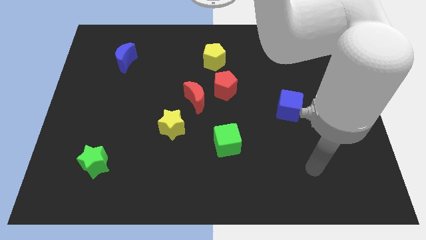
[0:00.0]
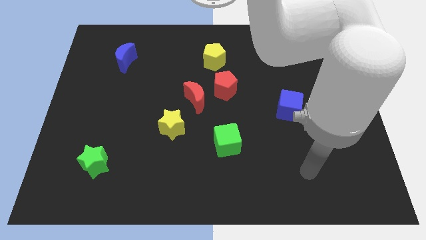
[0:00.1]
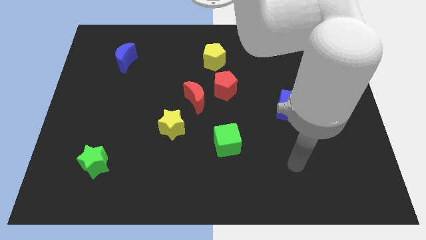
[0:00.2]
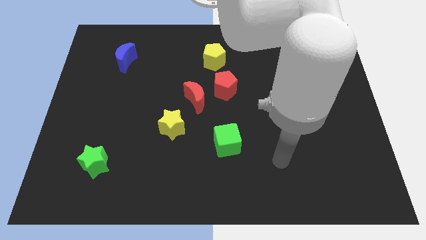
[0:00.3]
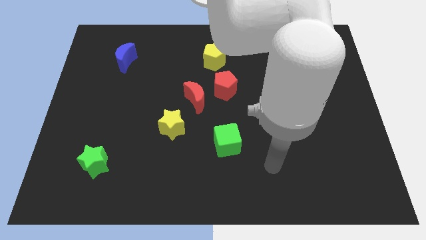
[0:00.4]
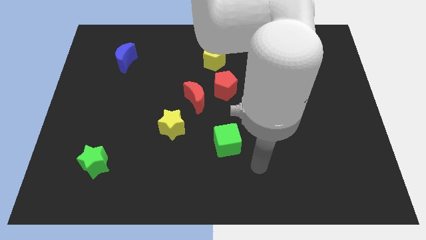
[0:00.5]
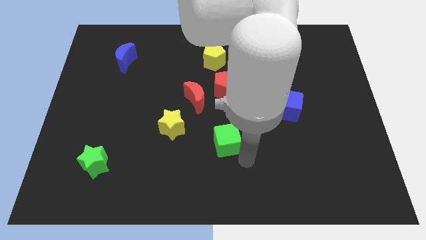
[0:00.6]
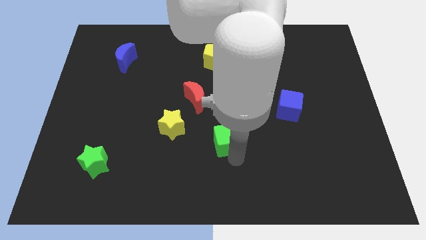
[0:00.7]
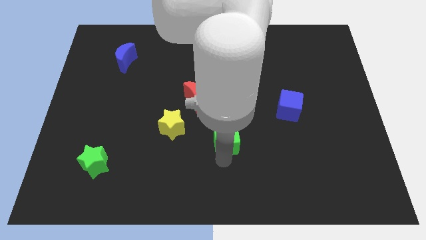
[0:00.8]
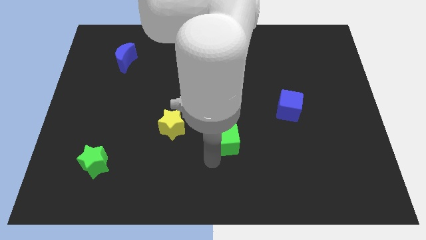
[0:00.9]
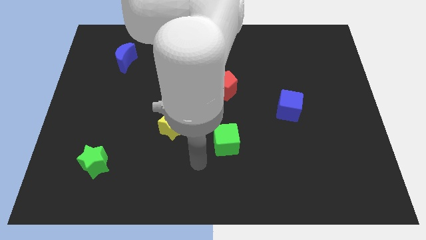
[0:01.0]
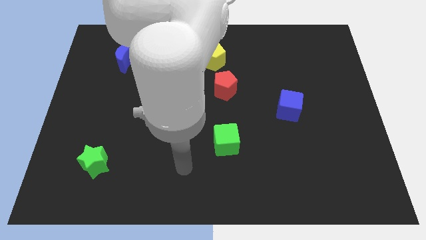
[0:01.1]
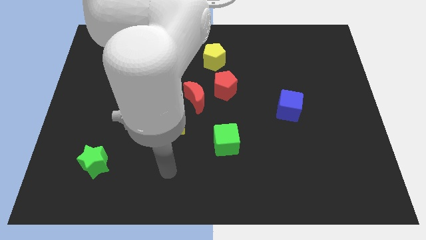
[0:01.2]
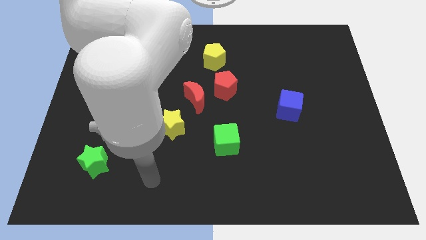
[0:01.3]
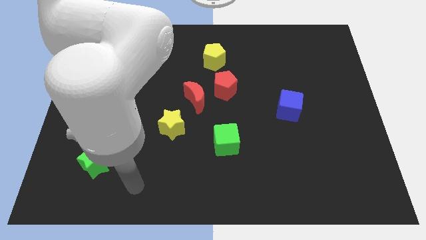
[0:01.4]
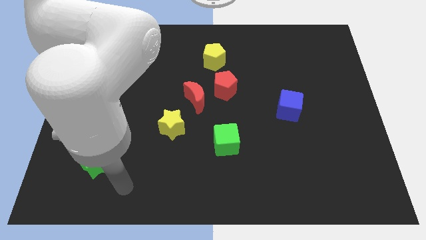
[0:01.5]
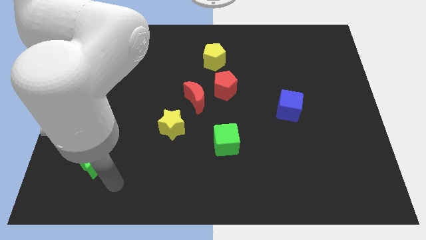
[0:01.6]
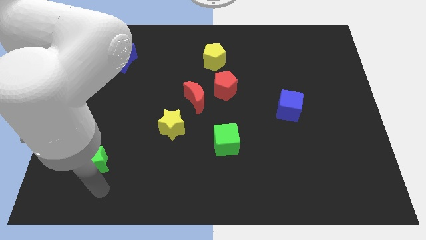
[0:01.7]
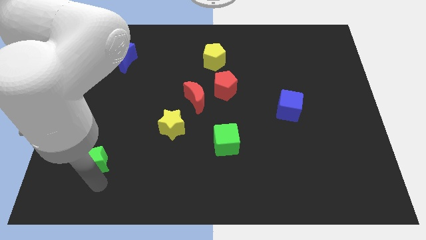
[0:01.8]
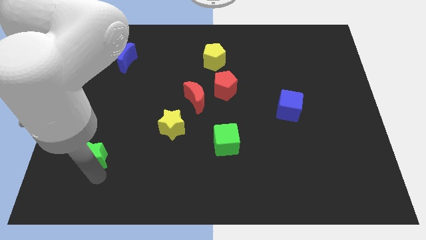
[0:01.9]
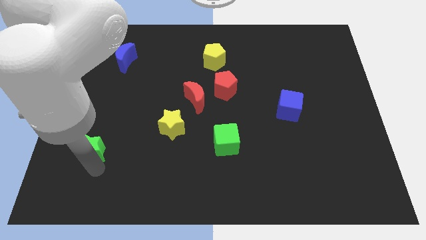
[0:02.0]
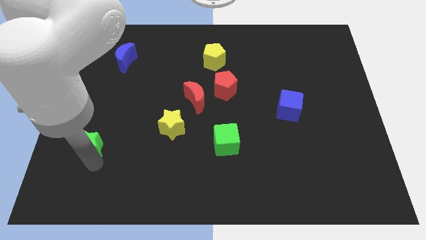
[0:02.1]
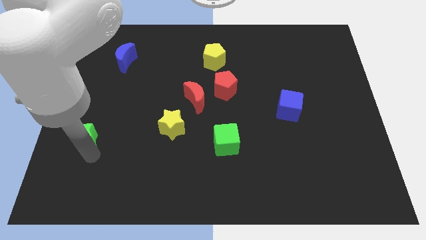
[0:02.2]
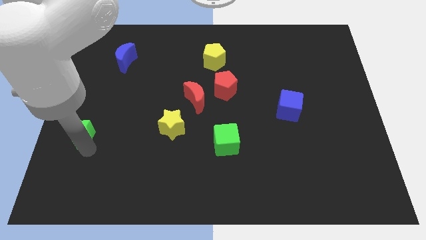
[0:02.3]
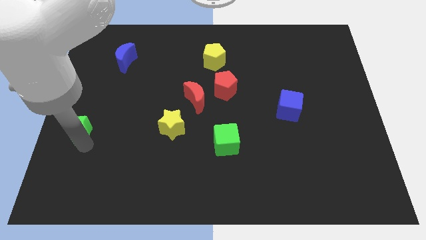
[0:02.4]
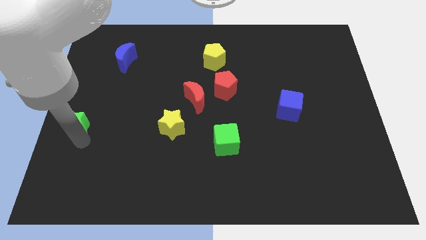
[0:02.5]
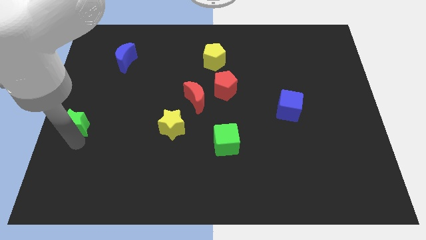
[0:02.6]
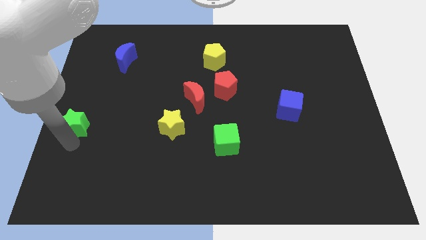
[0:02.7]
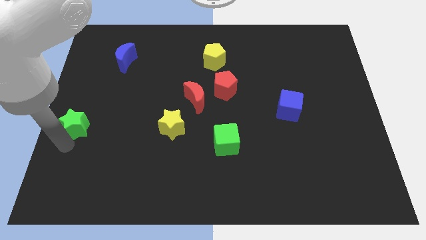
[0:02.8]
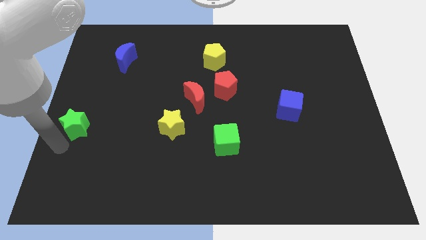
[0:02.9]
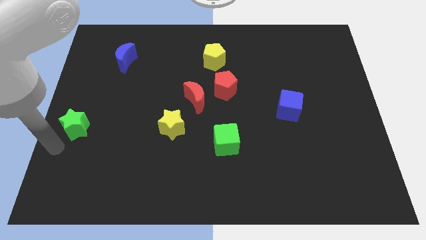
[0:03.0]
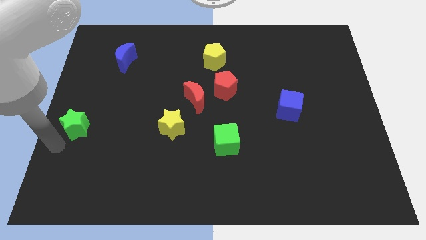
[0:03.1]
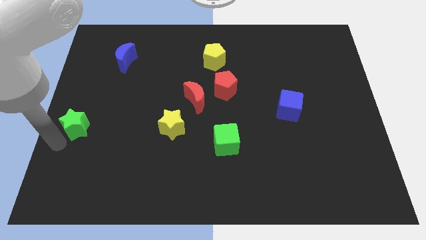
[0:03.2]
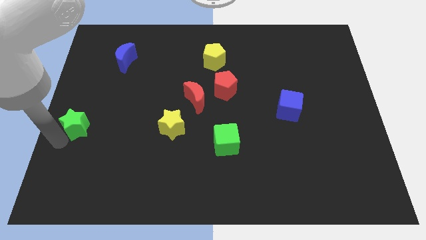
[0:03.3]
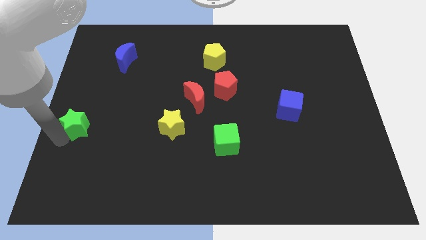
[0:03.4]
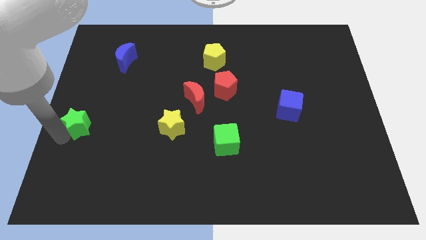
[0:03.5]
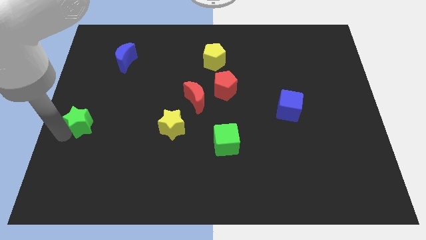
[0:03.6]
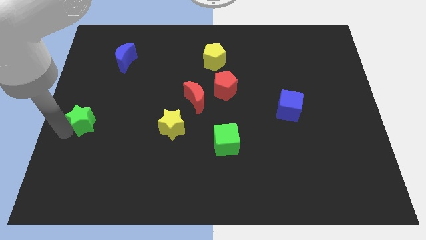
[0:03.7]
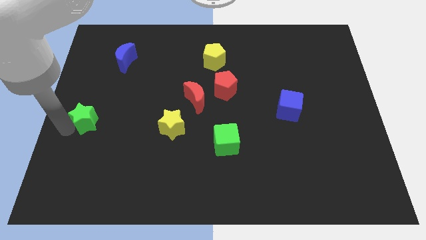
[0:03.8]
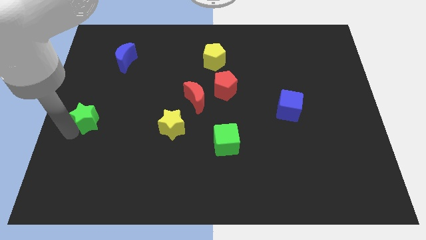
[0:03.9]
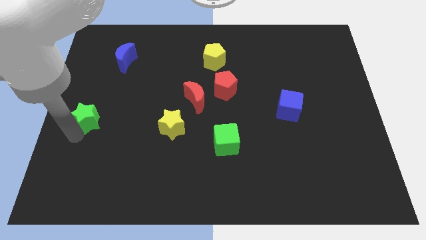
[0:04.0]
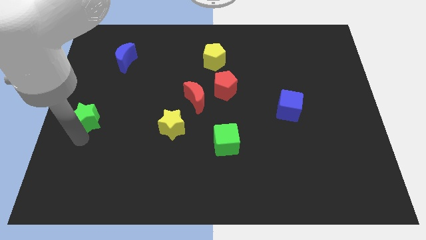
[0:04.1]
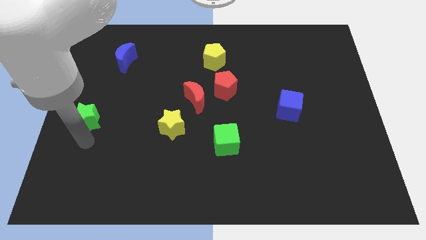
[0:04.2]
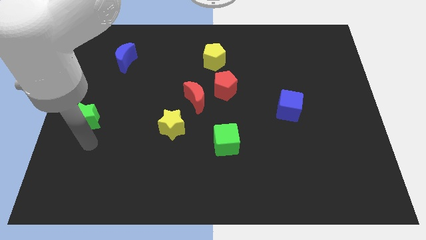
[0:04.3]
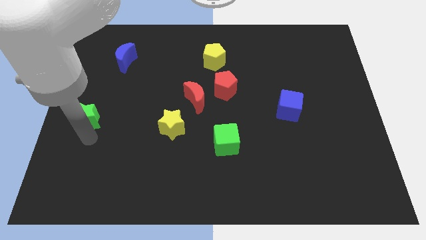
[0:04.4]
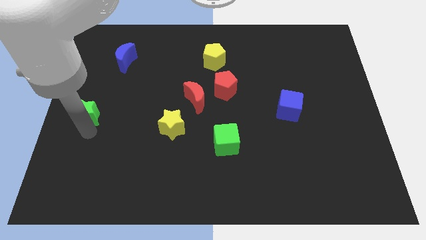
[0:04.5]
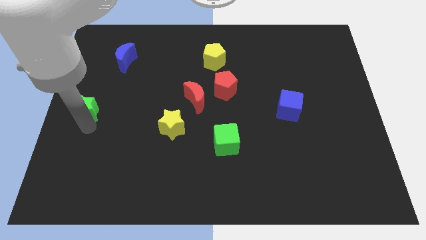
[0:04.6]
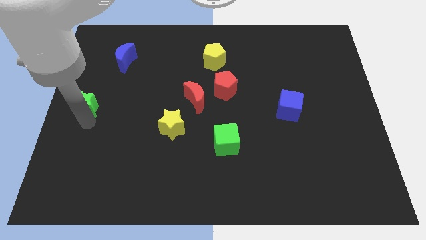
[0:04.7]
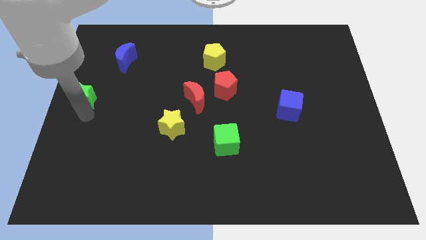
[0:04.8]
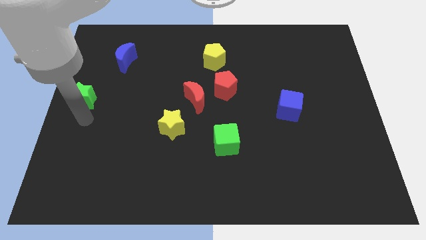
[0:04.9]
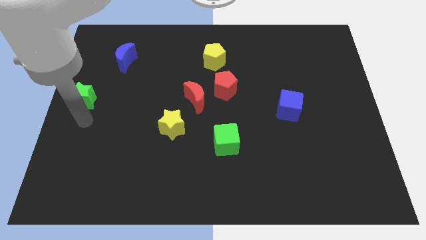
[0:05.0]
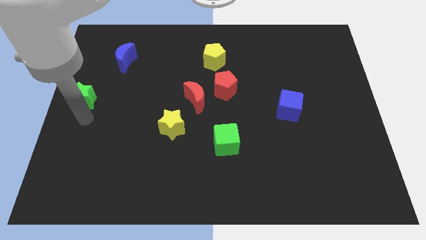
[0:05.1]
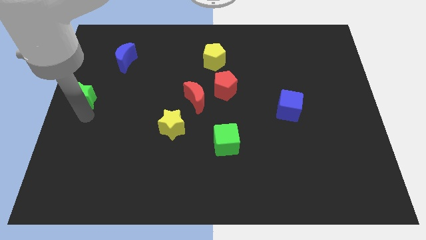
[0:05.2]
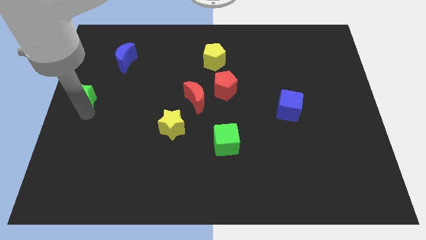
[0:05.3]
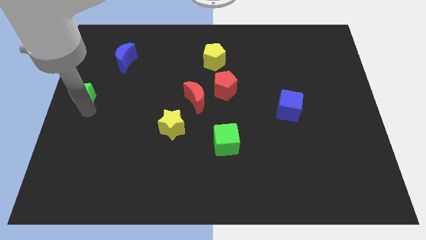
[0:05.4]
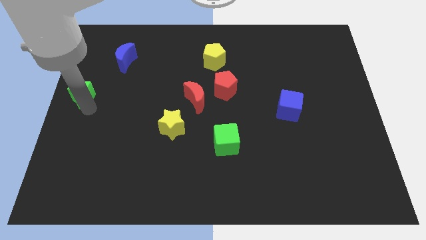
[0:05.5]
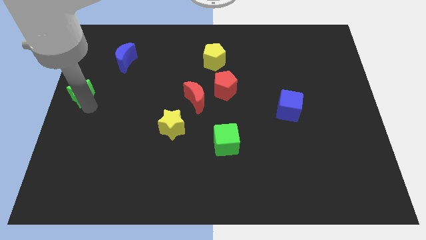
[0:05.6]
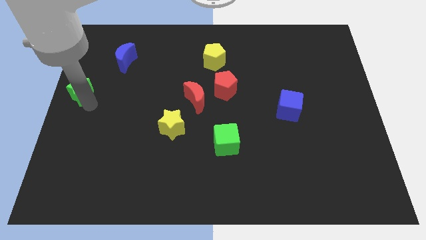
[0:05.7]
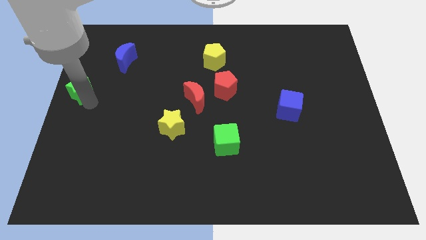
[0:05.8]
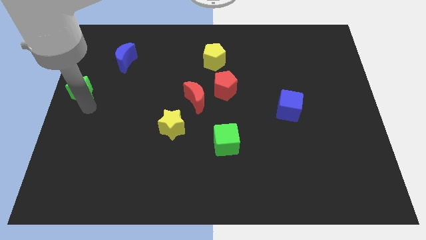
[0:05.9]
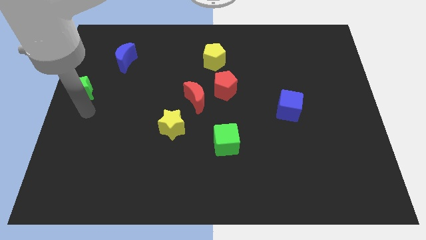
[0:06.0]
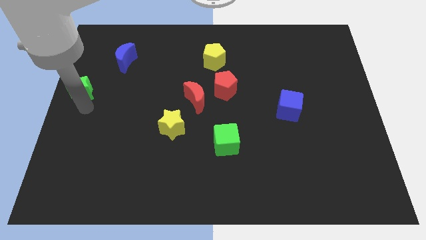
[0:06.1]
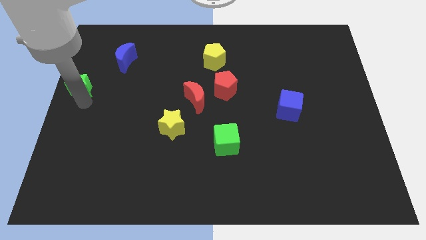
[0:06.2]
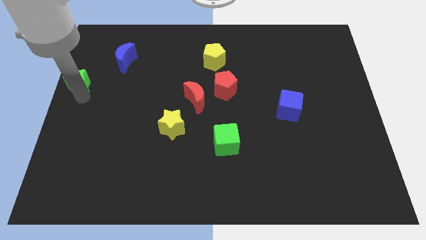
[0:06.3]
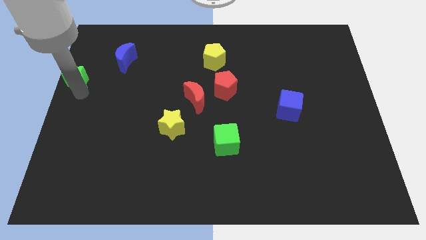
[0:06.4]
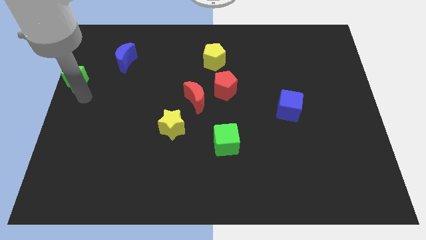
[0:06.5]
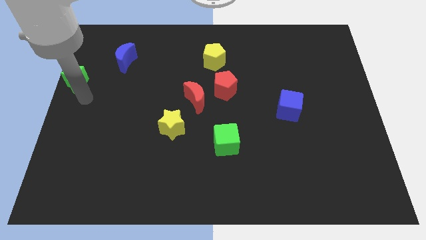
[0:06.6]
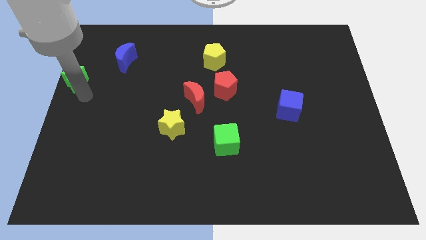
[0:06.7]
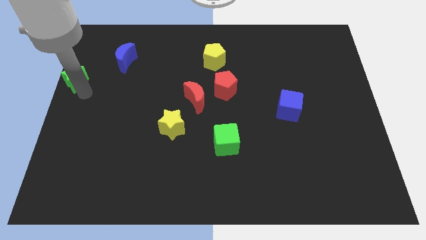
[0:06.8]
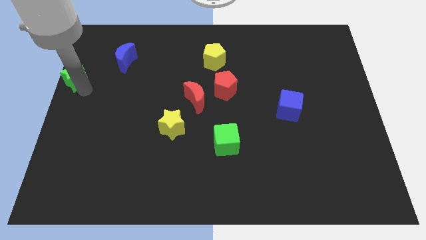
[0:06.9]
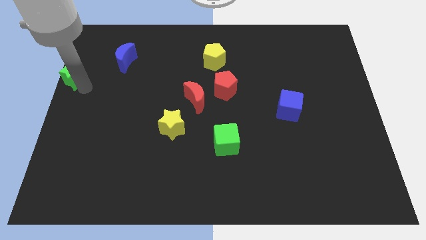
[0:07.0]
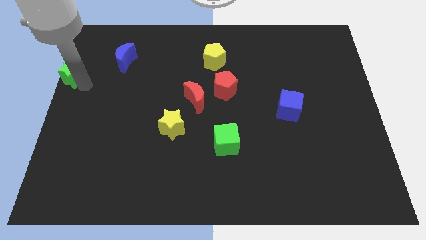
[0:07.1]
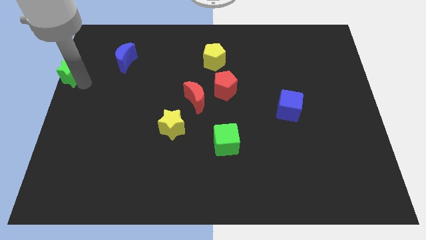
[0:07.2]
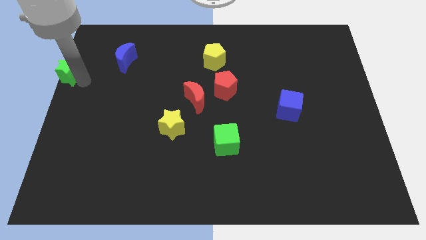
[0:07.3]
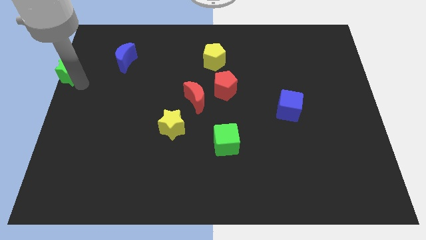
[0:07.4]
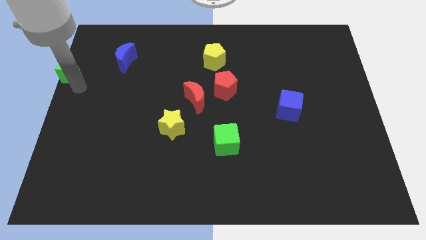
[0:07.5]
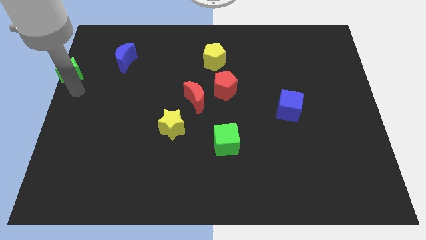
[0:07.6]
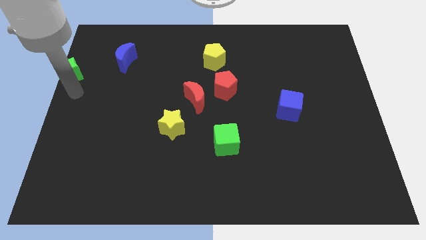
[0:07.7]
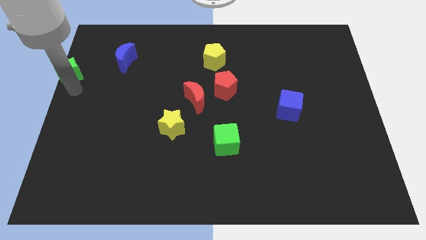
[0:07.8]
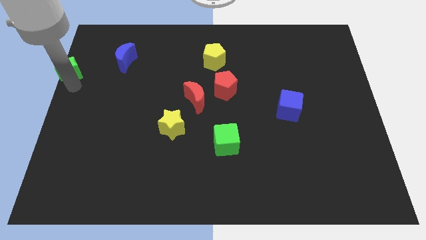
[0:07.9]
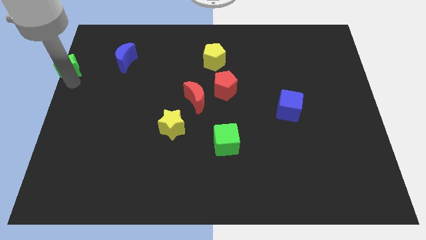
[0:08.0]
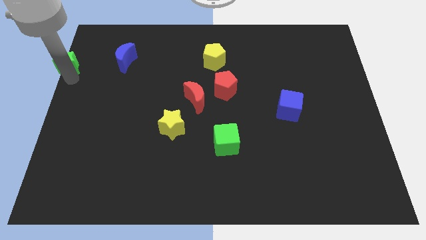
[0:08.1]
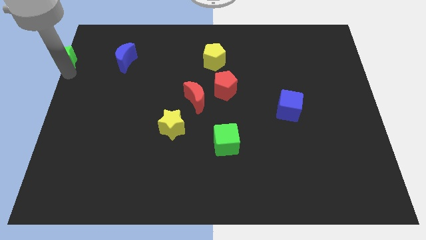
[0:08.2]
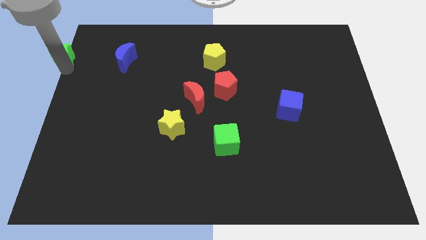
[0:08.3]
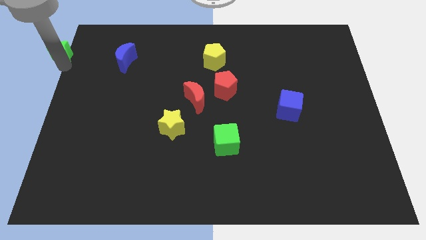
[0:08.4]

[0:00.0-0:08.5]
move the green star to the top left
